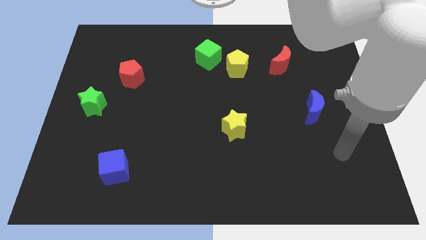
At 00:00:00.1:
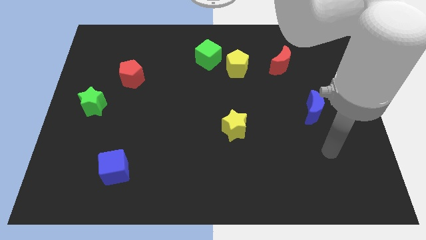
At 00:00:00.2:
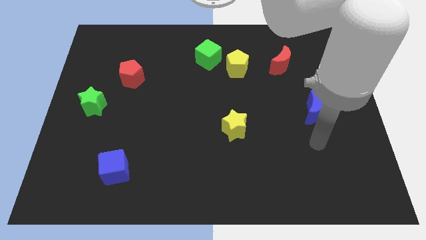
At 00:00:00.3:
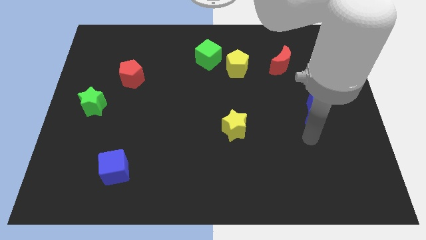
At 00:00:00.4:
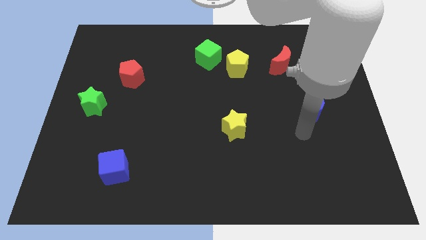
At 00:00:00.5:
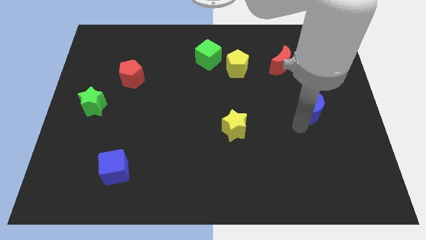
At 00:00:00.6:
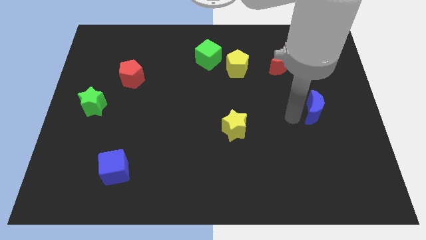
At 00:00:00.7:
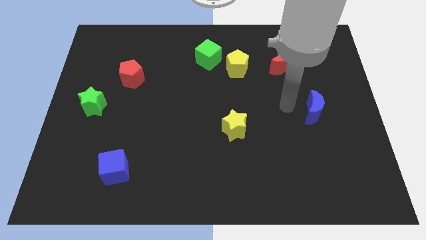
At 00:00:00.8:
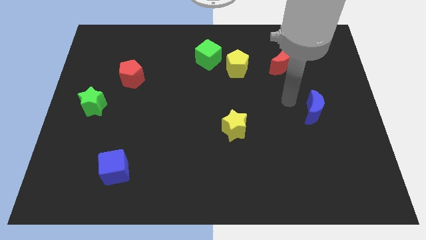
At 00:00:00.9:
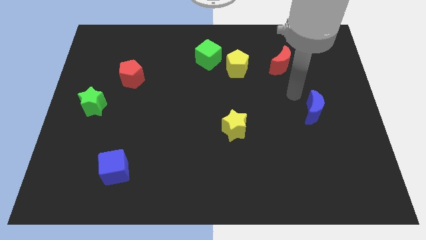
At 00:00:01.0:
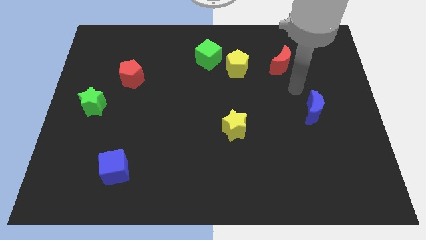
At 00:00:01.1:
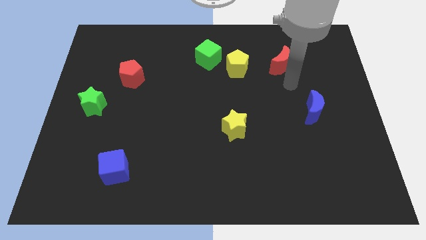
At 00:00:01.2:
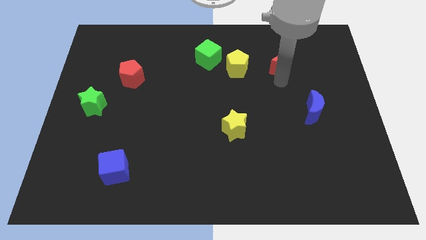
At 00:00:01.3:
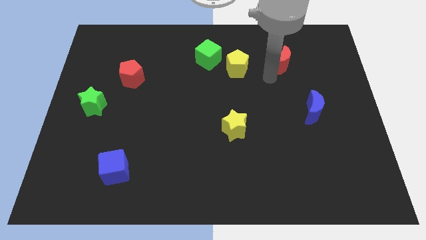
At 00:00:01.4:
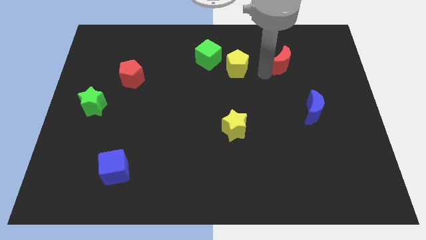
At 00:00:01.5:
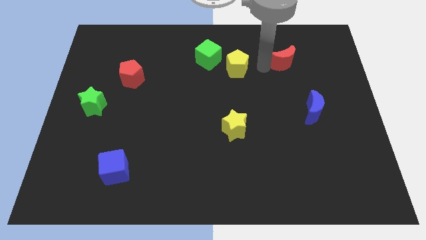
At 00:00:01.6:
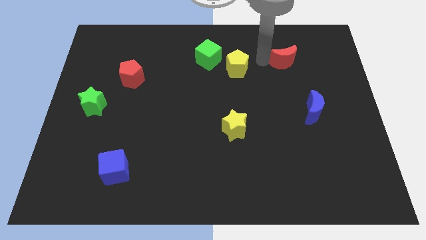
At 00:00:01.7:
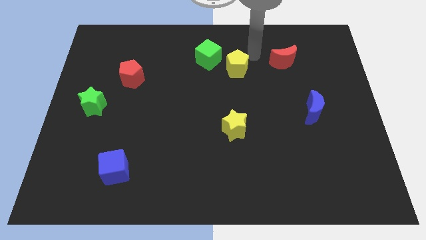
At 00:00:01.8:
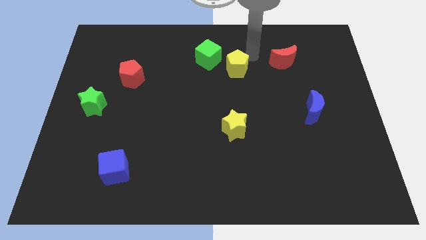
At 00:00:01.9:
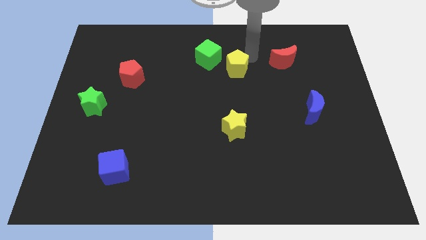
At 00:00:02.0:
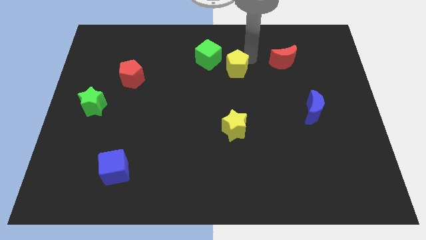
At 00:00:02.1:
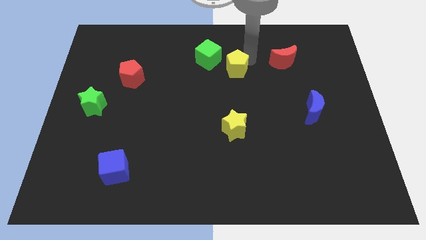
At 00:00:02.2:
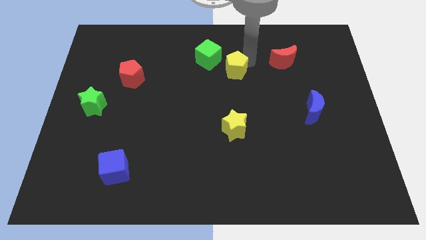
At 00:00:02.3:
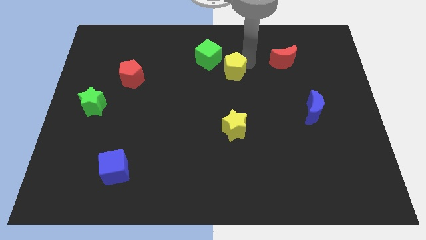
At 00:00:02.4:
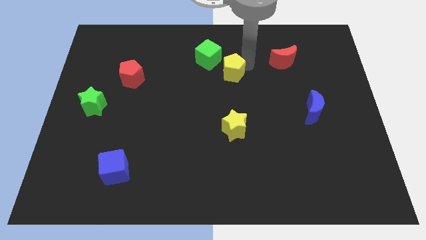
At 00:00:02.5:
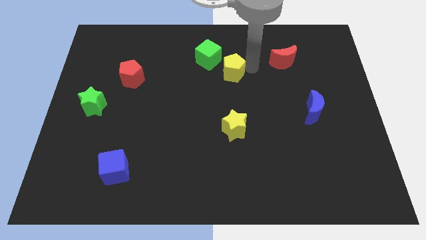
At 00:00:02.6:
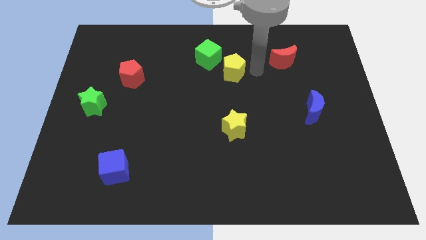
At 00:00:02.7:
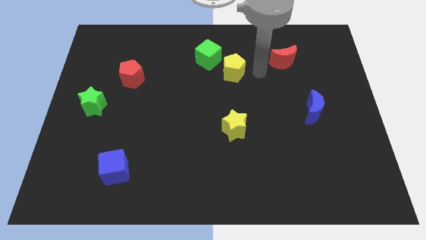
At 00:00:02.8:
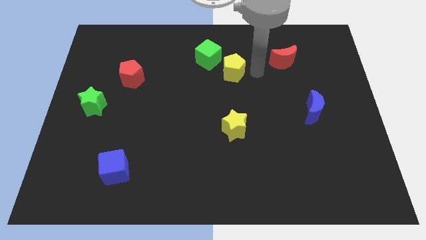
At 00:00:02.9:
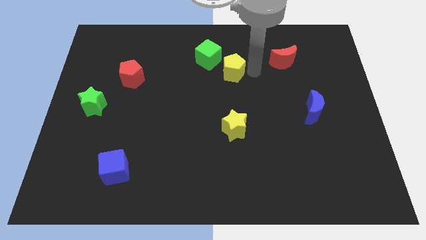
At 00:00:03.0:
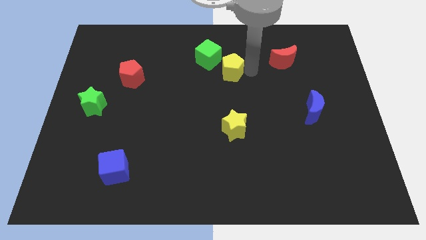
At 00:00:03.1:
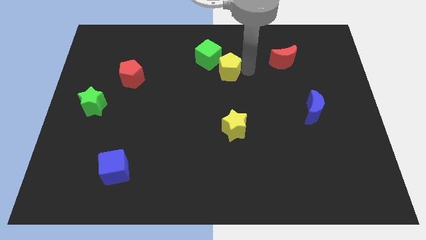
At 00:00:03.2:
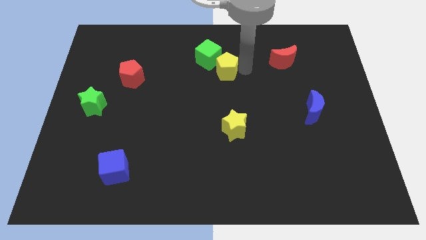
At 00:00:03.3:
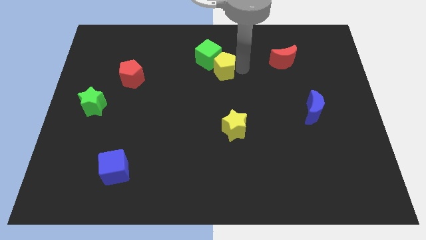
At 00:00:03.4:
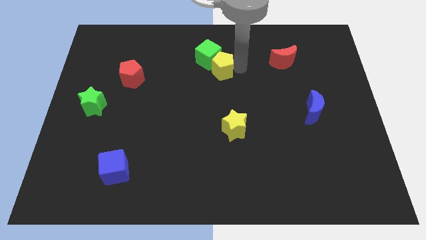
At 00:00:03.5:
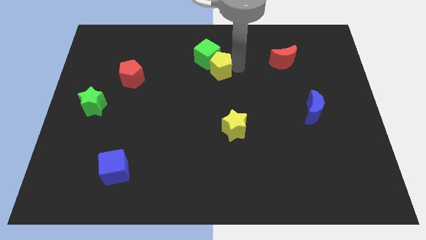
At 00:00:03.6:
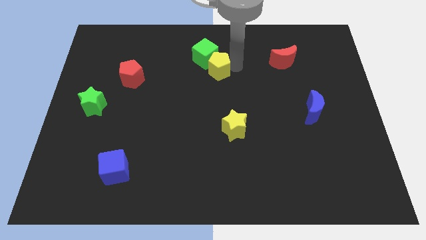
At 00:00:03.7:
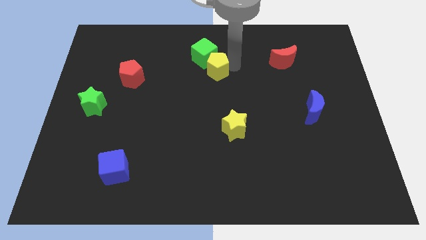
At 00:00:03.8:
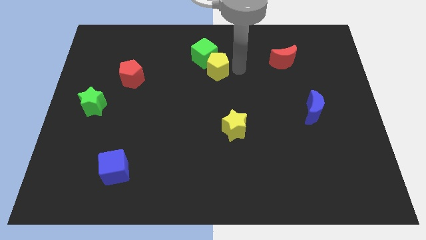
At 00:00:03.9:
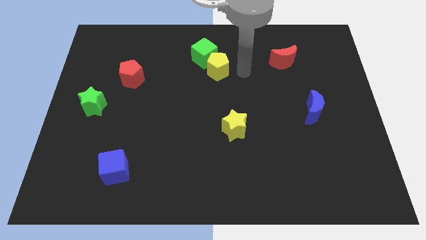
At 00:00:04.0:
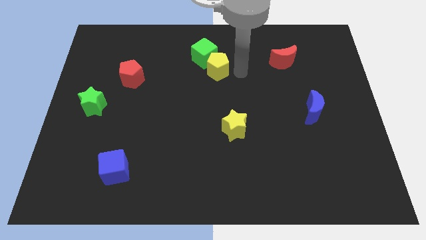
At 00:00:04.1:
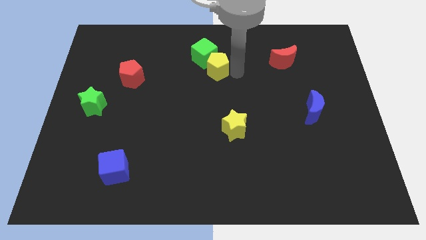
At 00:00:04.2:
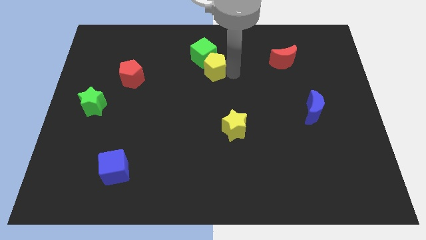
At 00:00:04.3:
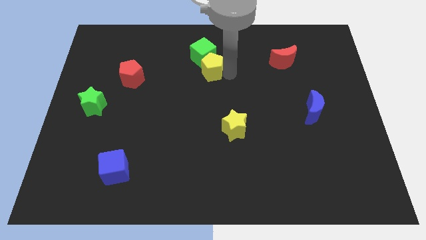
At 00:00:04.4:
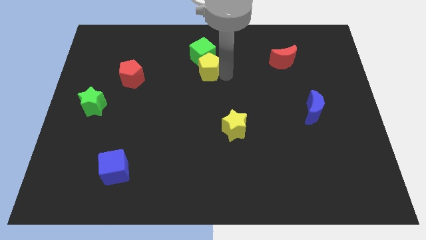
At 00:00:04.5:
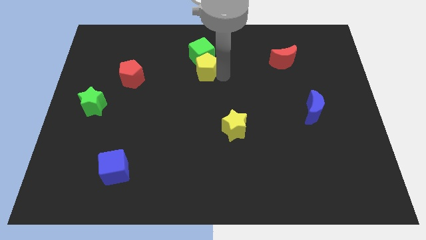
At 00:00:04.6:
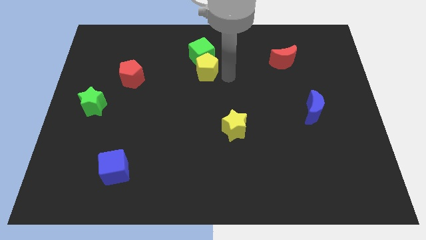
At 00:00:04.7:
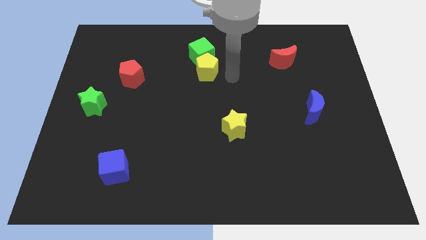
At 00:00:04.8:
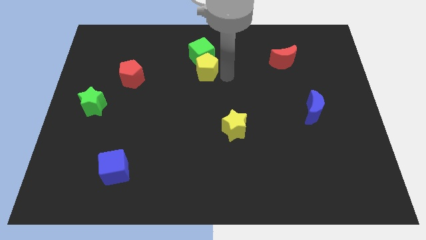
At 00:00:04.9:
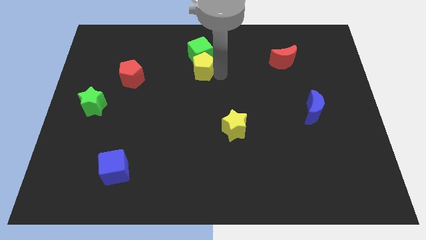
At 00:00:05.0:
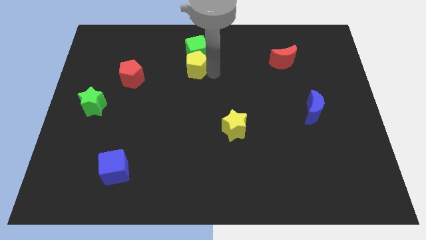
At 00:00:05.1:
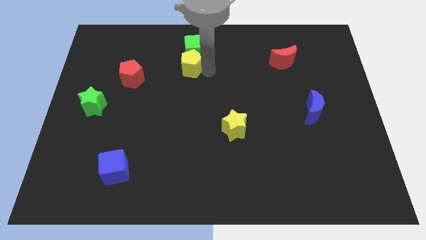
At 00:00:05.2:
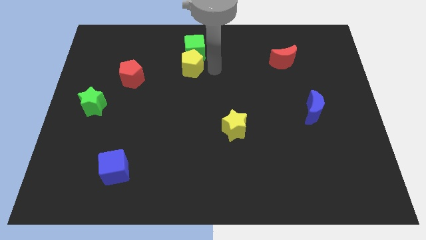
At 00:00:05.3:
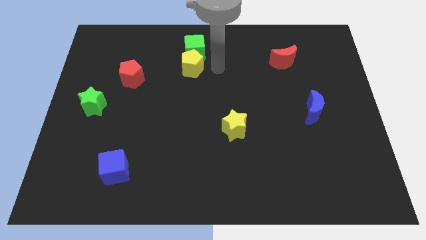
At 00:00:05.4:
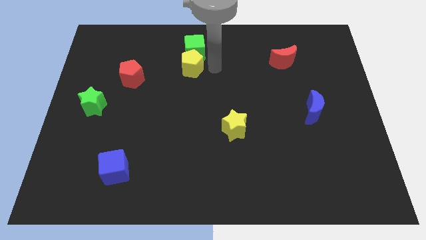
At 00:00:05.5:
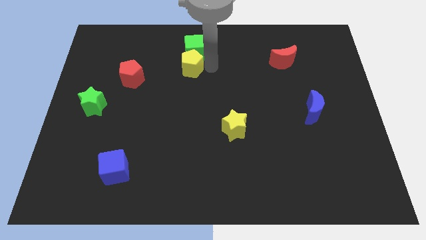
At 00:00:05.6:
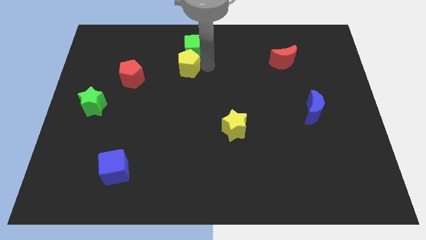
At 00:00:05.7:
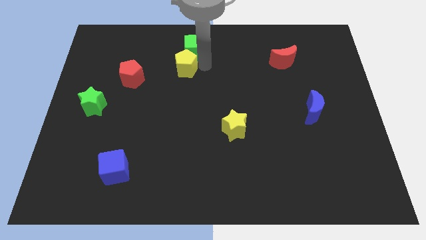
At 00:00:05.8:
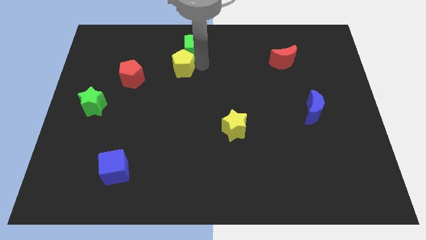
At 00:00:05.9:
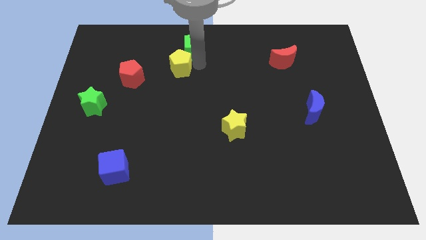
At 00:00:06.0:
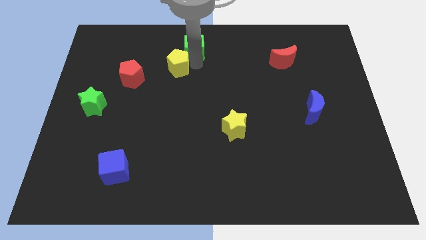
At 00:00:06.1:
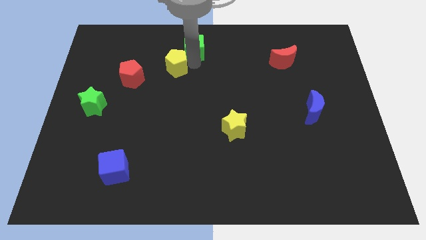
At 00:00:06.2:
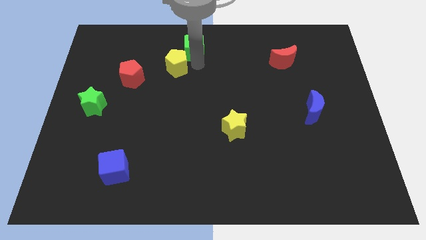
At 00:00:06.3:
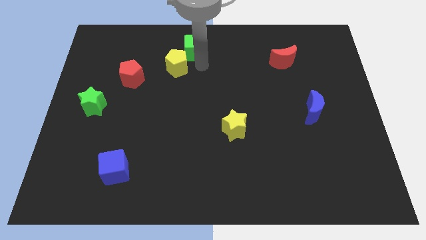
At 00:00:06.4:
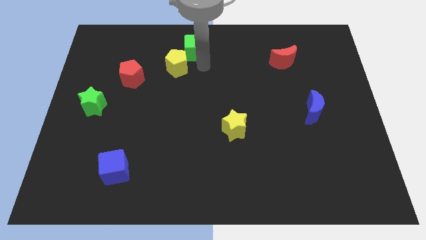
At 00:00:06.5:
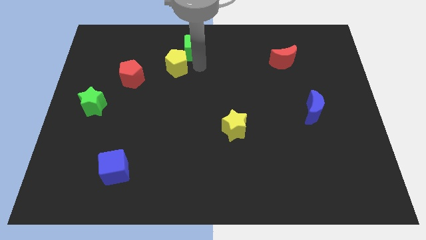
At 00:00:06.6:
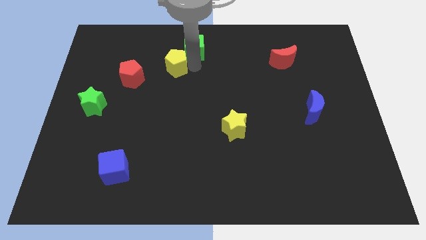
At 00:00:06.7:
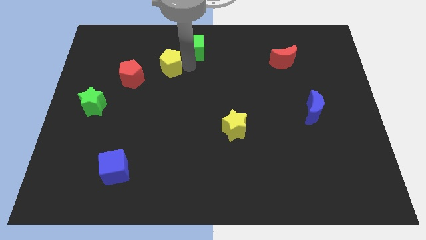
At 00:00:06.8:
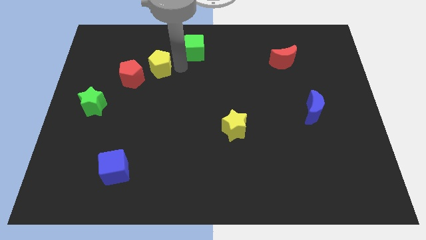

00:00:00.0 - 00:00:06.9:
slide the yellow pentagon left

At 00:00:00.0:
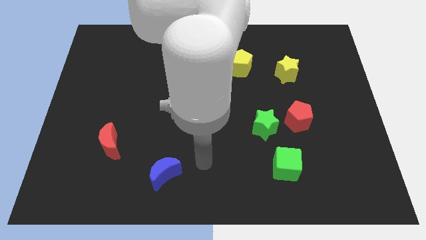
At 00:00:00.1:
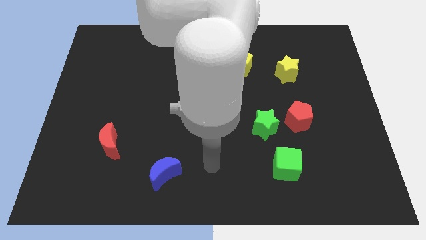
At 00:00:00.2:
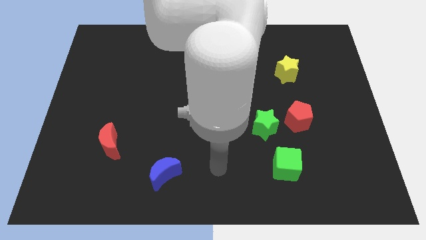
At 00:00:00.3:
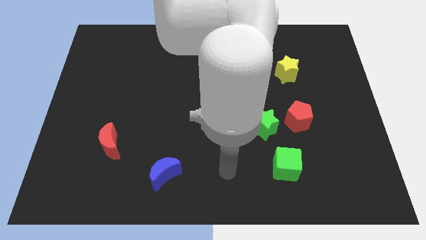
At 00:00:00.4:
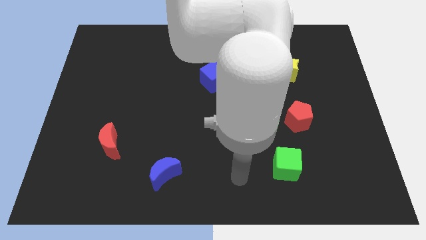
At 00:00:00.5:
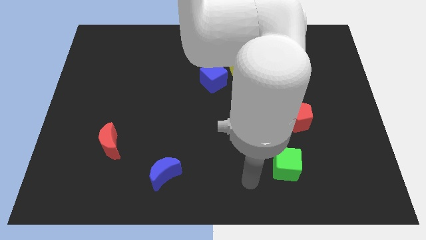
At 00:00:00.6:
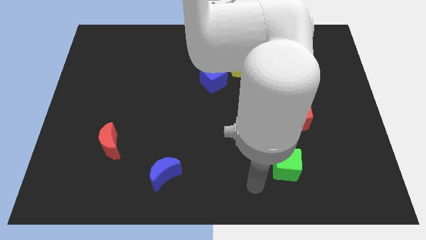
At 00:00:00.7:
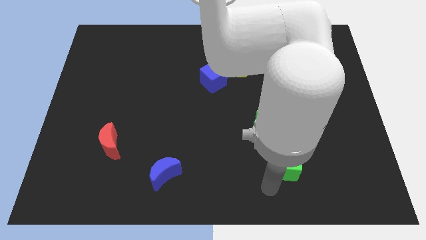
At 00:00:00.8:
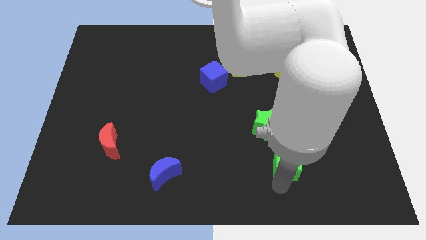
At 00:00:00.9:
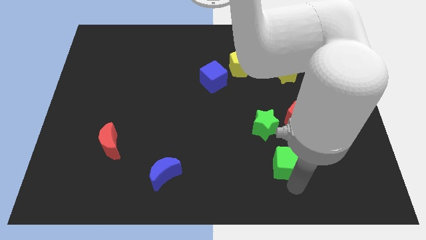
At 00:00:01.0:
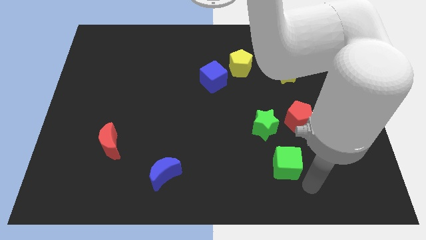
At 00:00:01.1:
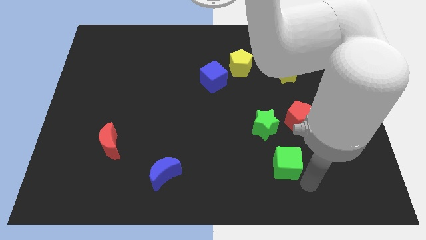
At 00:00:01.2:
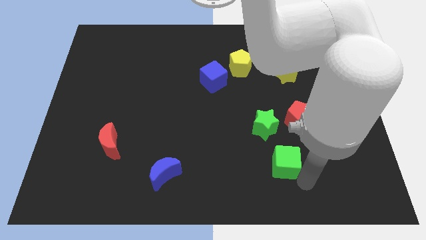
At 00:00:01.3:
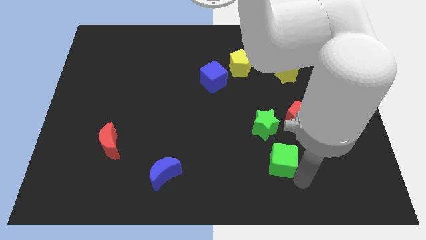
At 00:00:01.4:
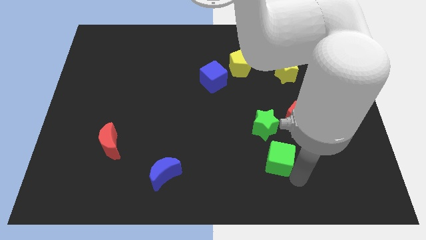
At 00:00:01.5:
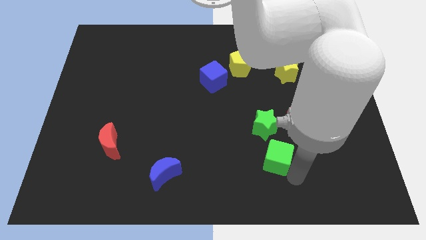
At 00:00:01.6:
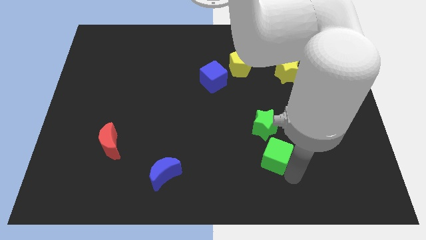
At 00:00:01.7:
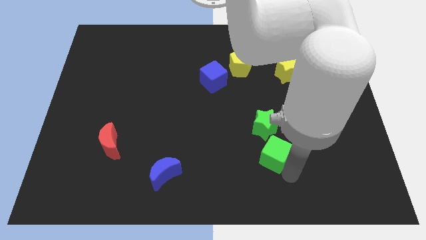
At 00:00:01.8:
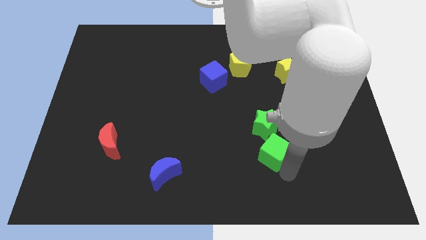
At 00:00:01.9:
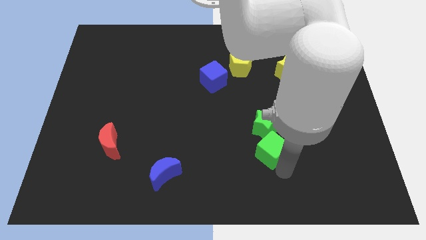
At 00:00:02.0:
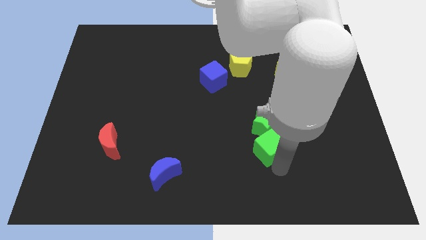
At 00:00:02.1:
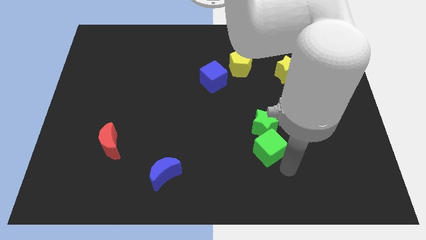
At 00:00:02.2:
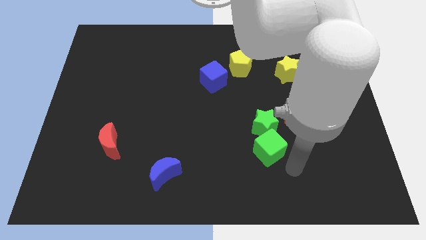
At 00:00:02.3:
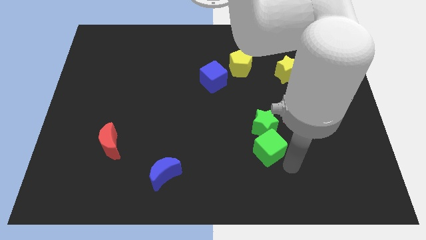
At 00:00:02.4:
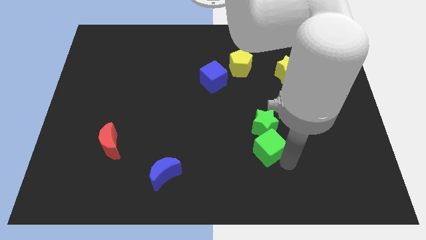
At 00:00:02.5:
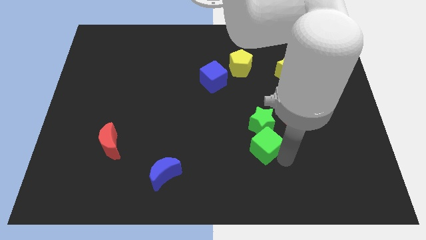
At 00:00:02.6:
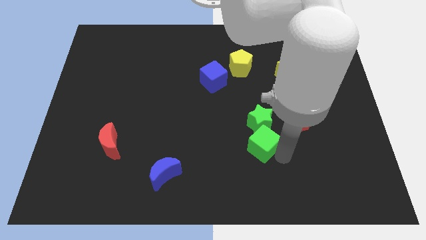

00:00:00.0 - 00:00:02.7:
move the green cube a bit up and left diagonally
